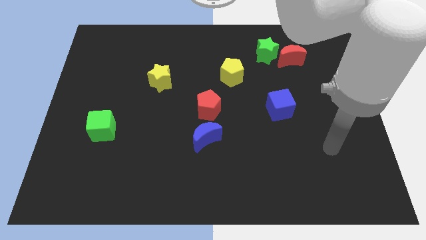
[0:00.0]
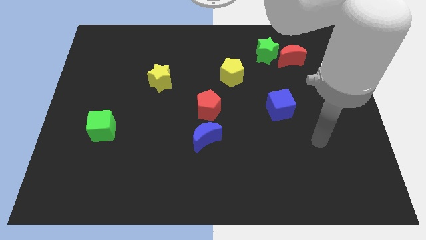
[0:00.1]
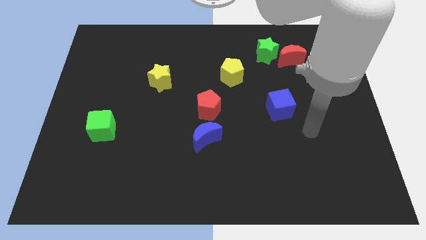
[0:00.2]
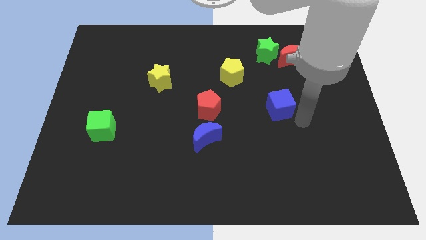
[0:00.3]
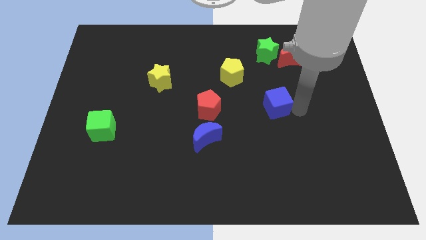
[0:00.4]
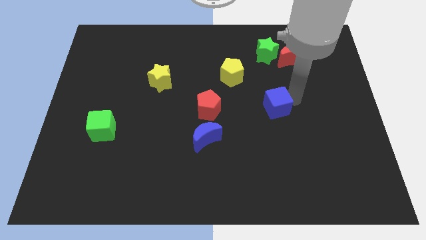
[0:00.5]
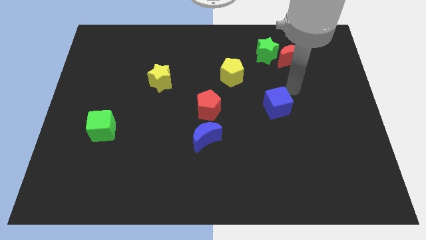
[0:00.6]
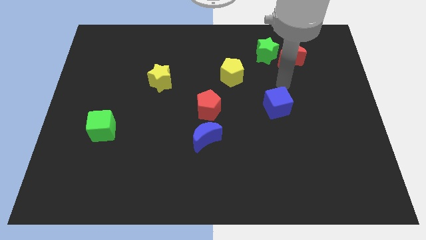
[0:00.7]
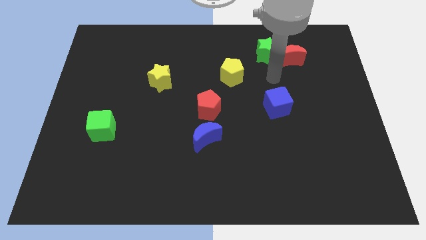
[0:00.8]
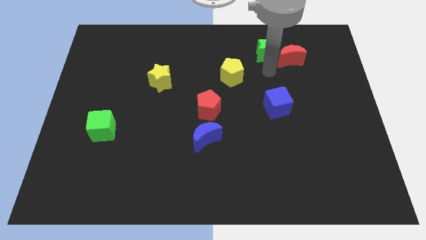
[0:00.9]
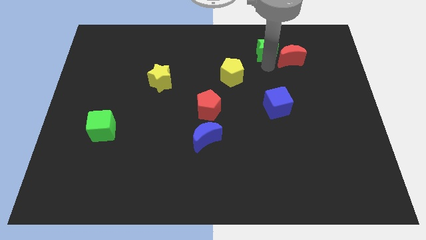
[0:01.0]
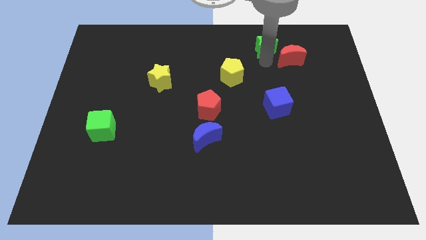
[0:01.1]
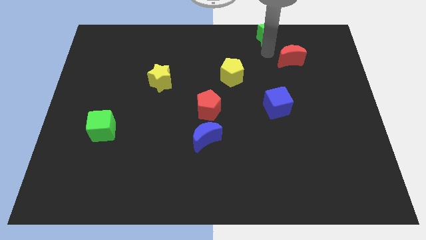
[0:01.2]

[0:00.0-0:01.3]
move the red moon away from the green star

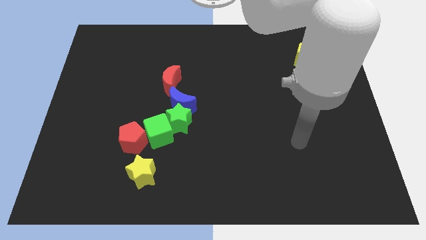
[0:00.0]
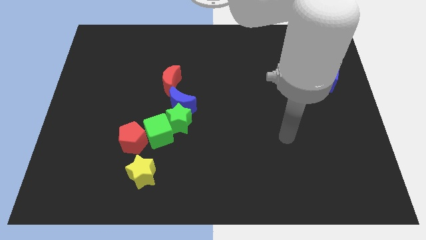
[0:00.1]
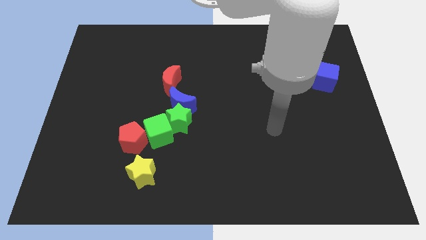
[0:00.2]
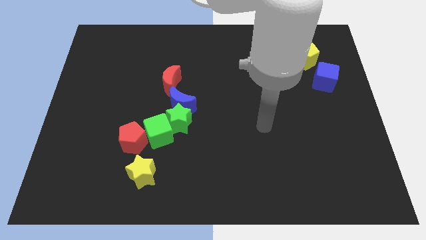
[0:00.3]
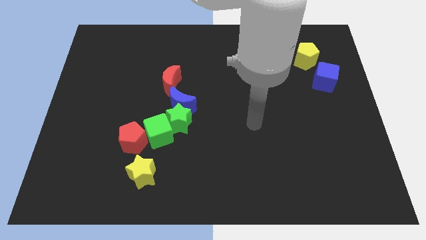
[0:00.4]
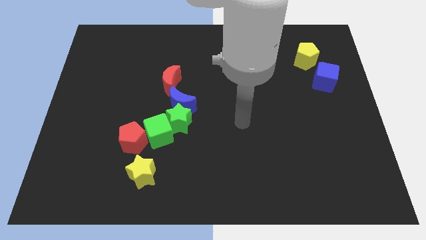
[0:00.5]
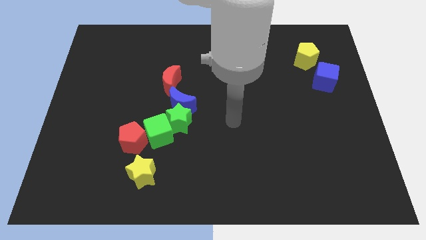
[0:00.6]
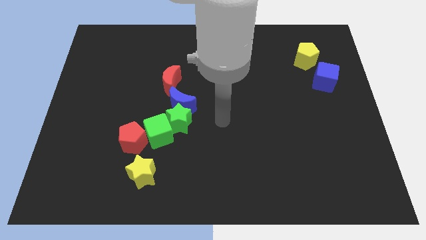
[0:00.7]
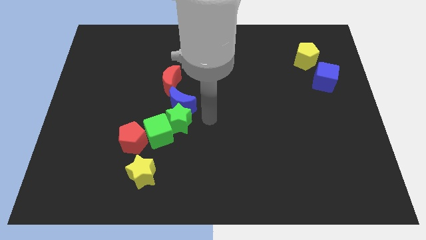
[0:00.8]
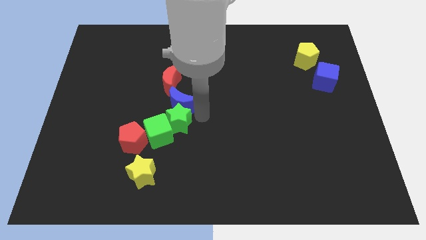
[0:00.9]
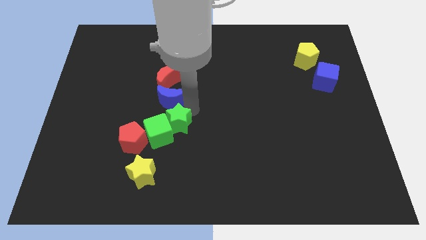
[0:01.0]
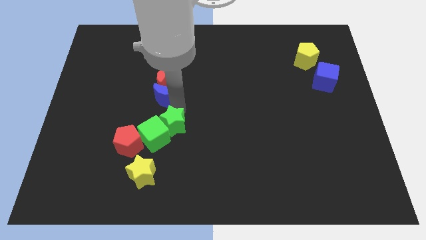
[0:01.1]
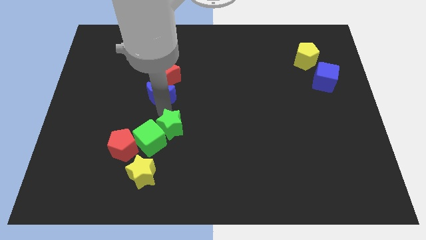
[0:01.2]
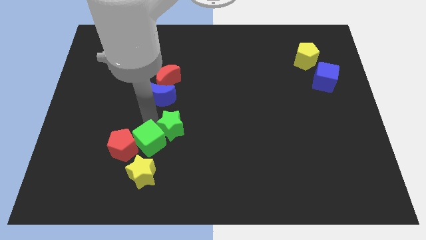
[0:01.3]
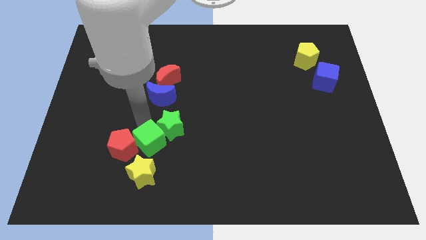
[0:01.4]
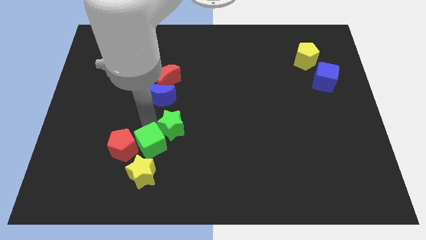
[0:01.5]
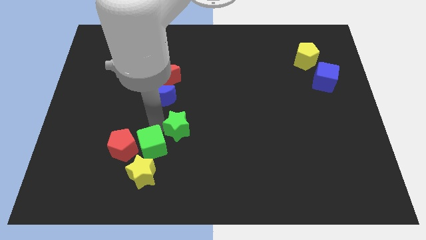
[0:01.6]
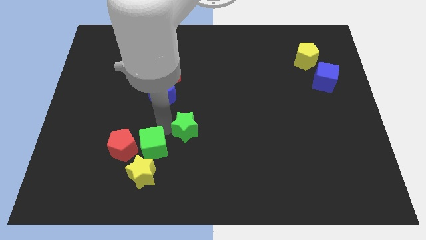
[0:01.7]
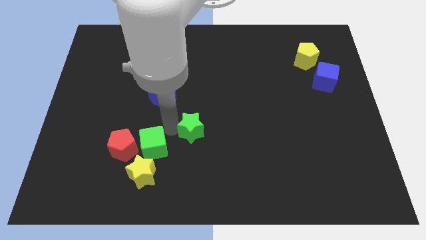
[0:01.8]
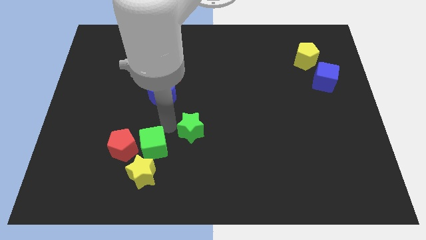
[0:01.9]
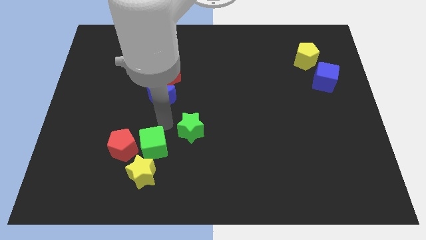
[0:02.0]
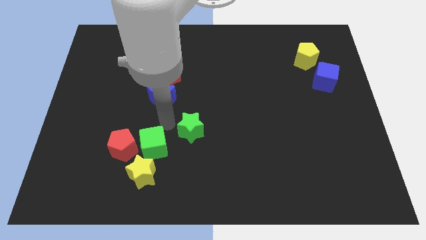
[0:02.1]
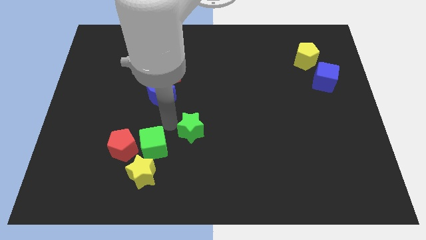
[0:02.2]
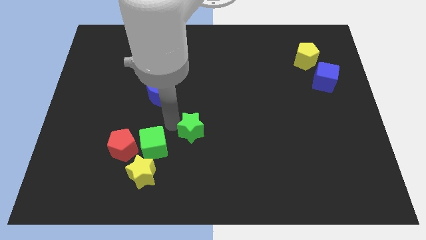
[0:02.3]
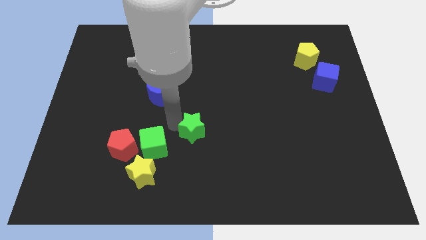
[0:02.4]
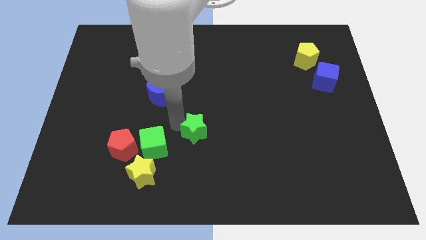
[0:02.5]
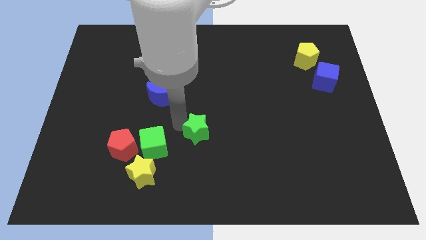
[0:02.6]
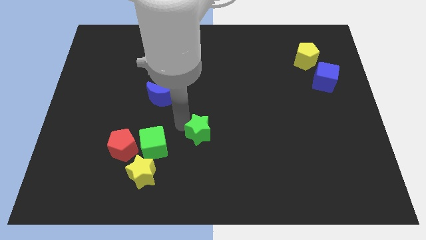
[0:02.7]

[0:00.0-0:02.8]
pull the green star apart from the blue moon and green cube

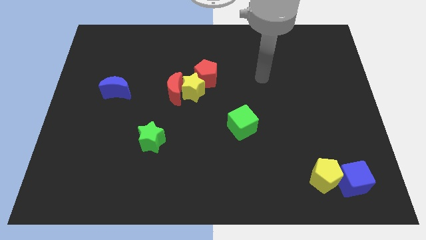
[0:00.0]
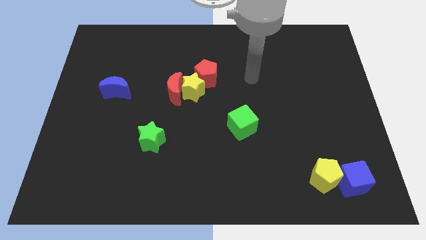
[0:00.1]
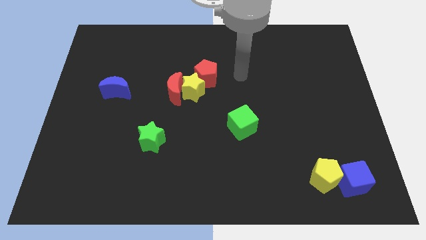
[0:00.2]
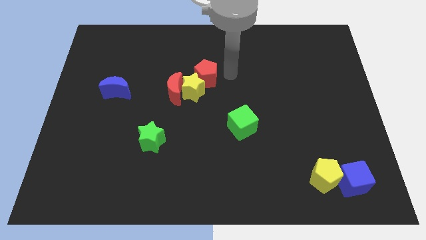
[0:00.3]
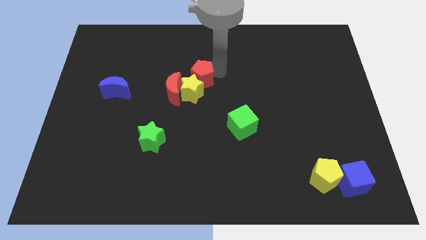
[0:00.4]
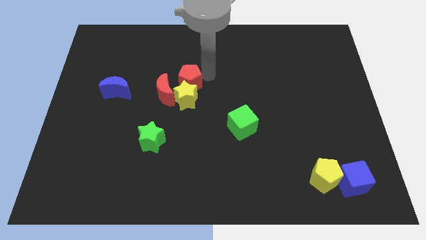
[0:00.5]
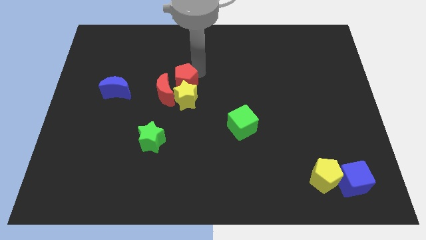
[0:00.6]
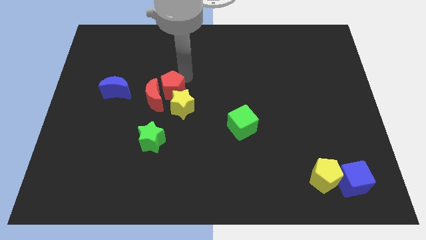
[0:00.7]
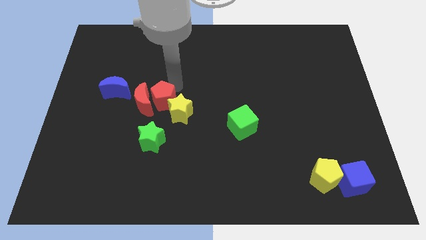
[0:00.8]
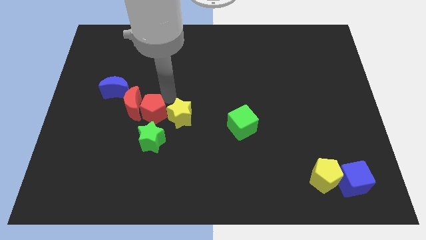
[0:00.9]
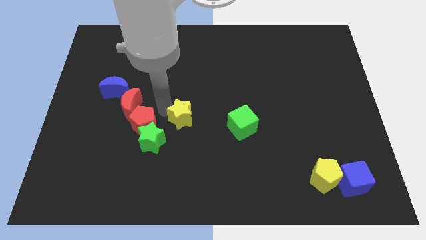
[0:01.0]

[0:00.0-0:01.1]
move the yellow star away from the red moon and red pentagon

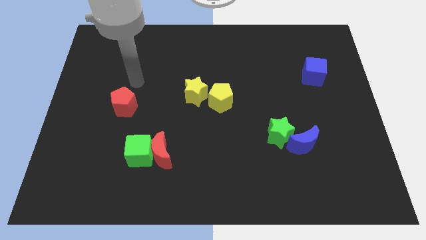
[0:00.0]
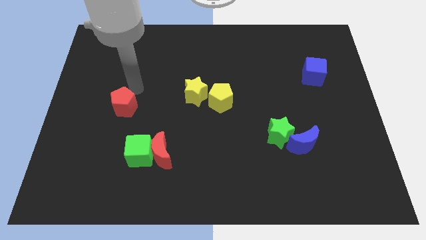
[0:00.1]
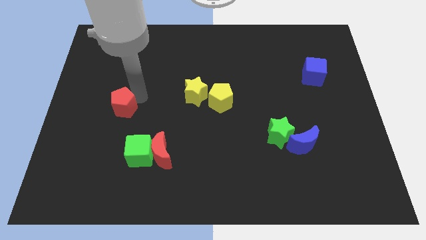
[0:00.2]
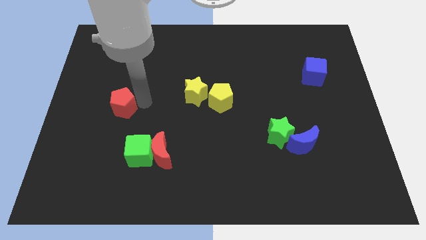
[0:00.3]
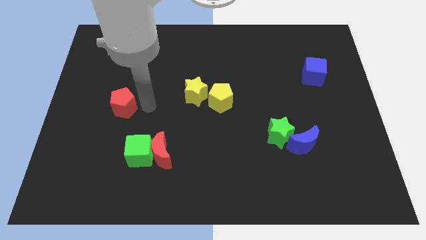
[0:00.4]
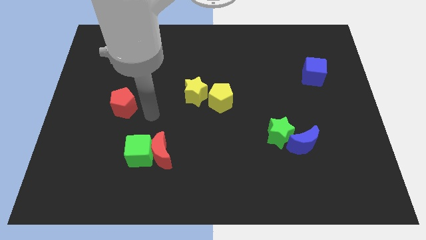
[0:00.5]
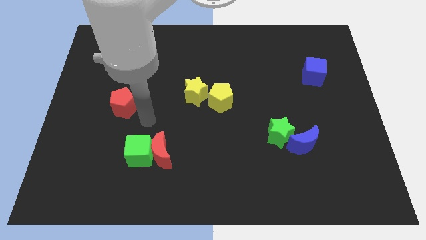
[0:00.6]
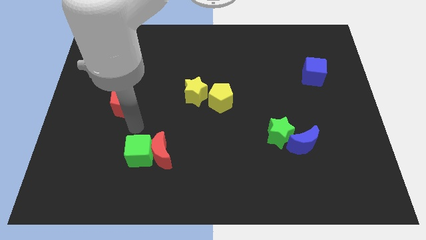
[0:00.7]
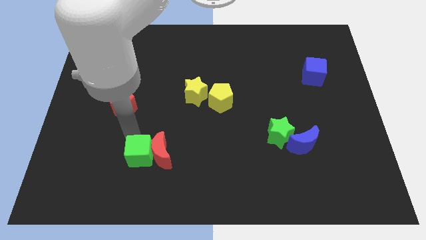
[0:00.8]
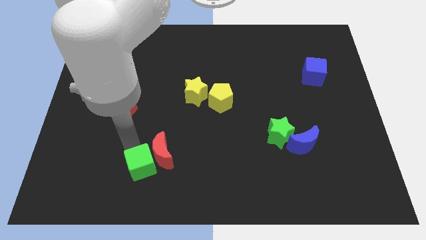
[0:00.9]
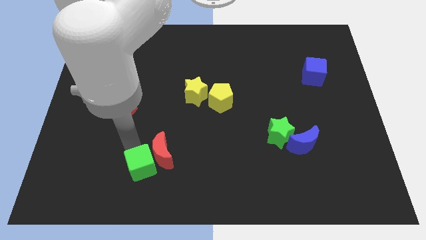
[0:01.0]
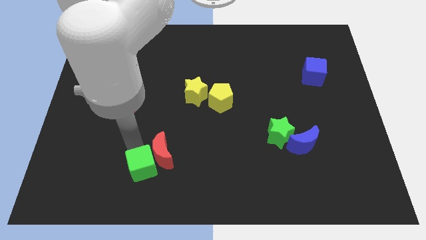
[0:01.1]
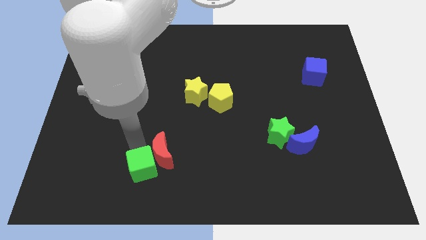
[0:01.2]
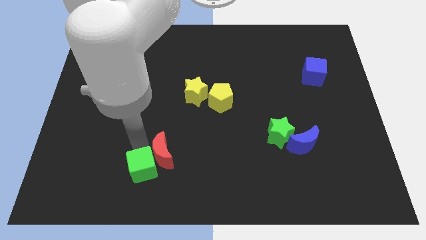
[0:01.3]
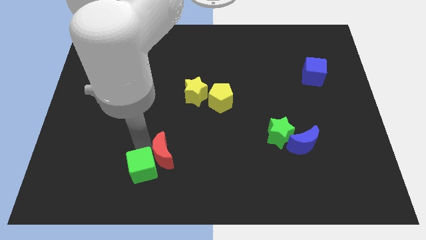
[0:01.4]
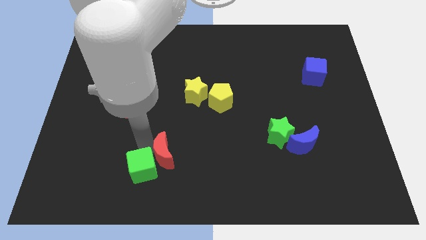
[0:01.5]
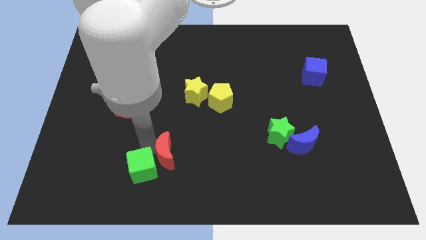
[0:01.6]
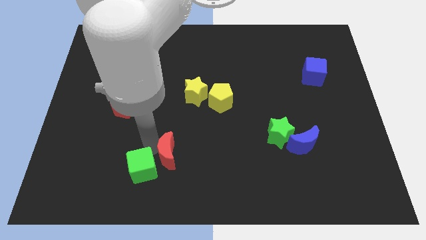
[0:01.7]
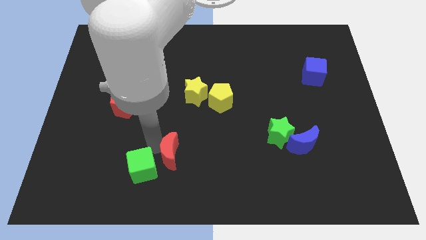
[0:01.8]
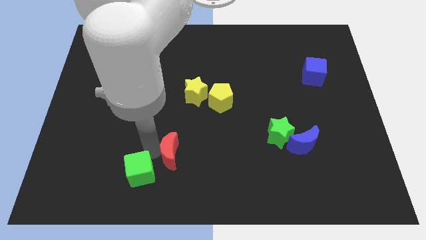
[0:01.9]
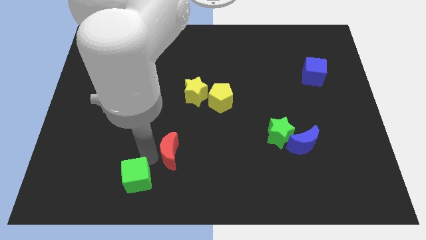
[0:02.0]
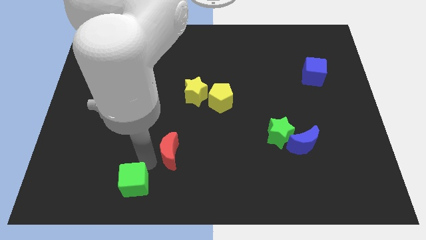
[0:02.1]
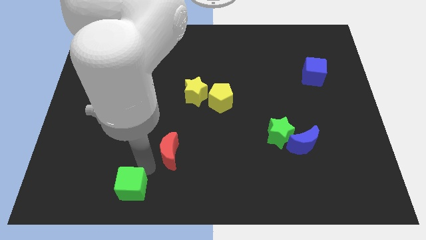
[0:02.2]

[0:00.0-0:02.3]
move the red moon away from the green cube

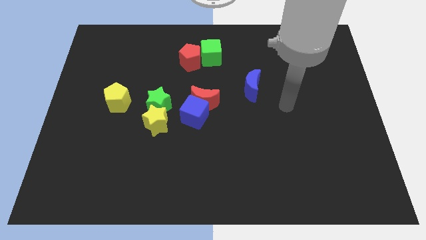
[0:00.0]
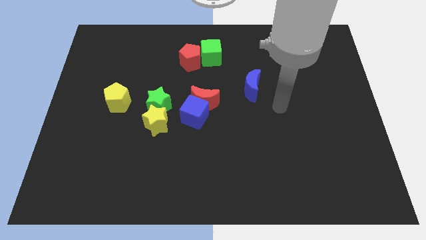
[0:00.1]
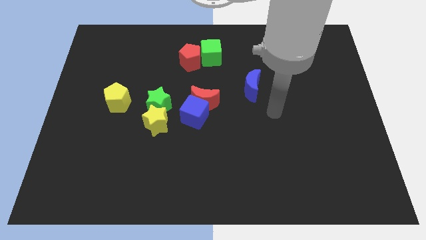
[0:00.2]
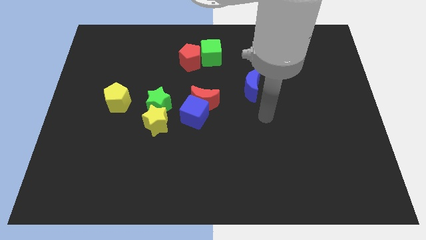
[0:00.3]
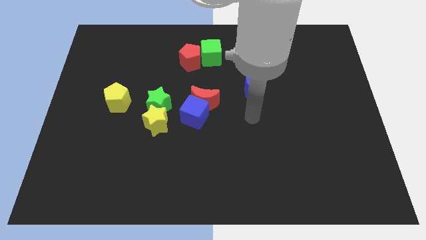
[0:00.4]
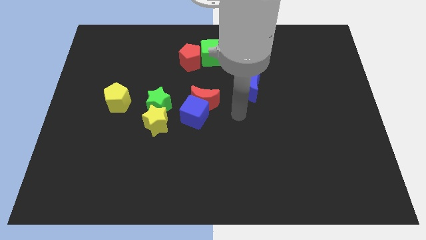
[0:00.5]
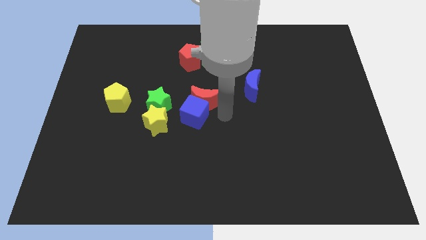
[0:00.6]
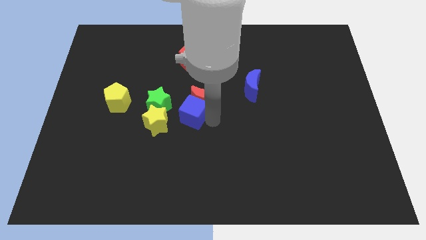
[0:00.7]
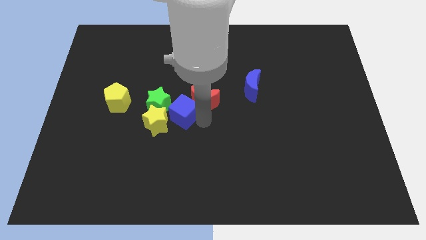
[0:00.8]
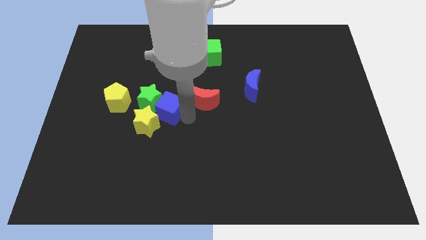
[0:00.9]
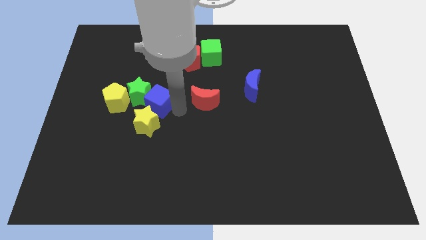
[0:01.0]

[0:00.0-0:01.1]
move the red moon away from the blue cube

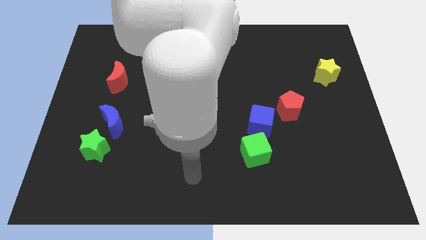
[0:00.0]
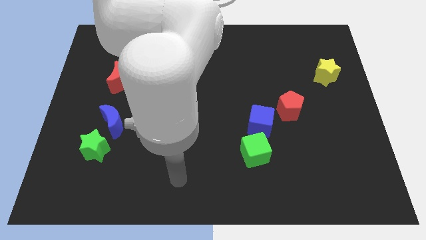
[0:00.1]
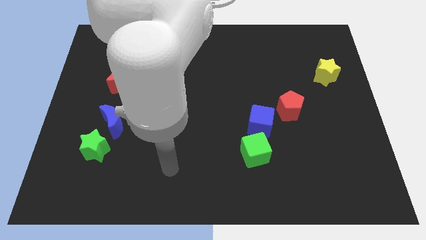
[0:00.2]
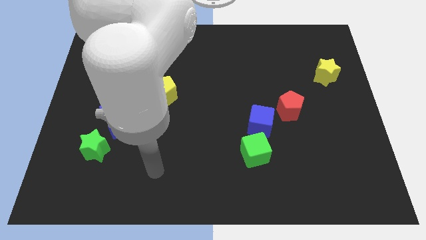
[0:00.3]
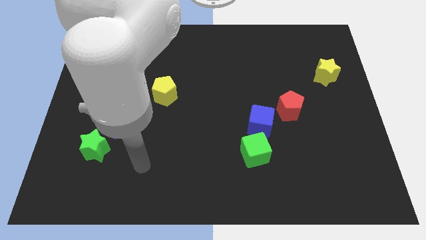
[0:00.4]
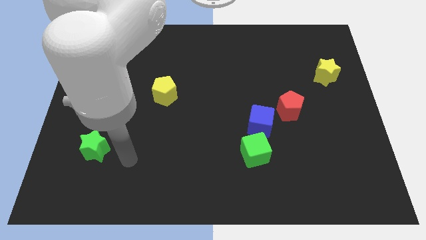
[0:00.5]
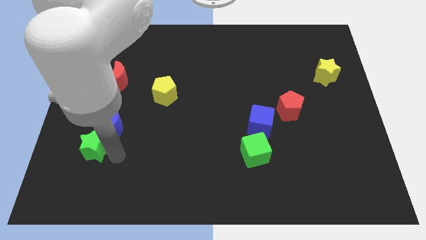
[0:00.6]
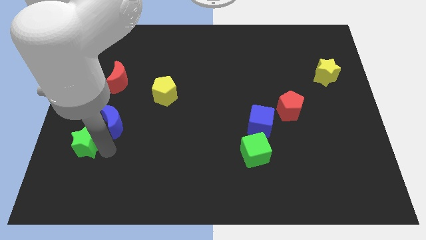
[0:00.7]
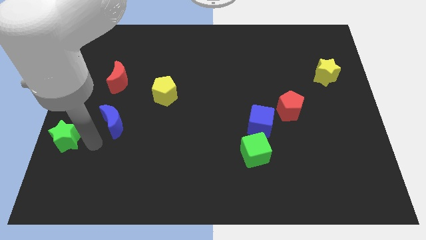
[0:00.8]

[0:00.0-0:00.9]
pull the blue moon apart from the green star
